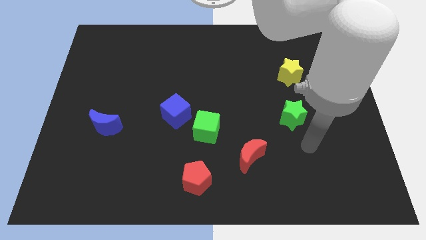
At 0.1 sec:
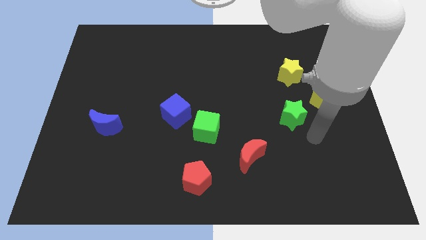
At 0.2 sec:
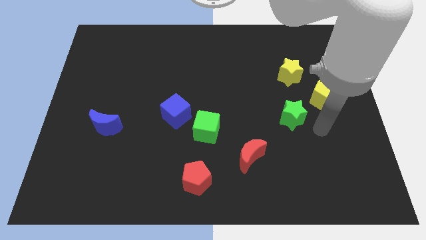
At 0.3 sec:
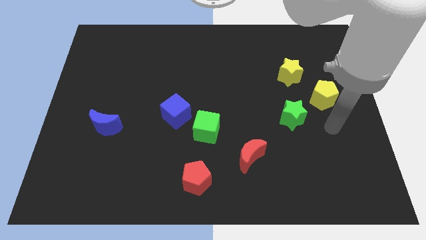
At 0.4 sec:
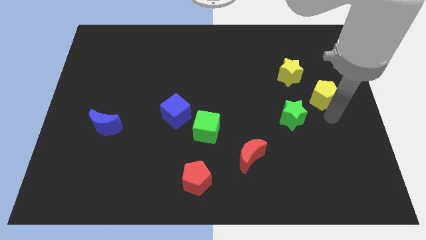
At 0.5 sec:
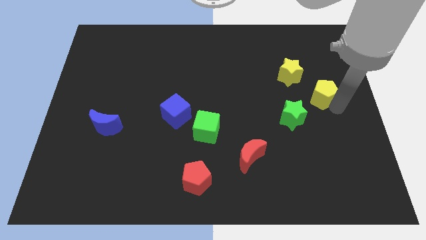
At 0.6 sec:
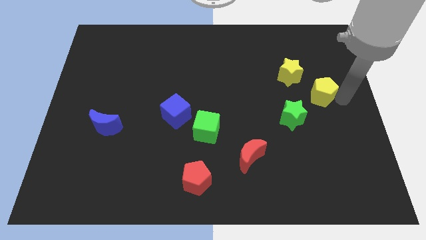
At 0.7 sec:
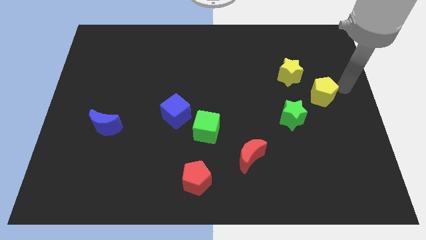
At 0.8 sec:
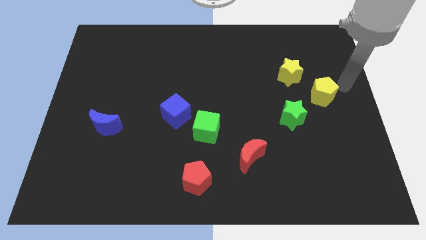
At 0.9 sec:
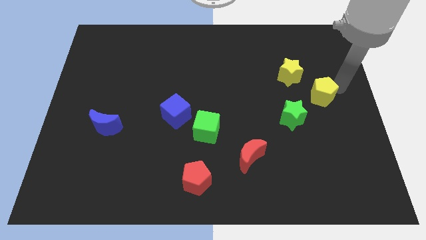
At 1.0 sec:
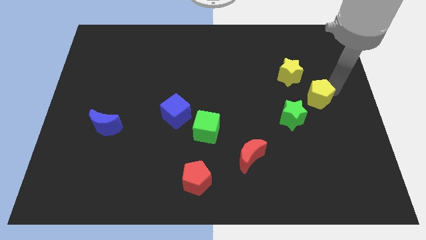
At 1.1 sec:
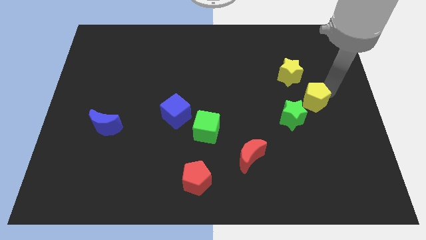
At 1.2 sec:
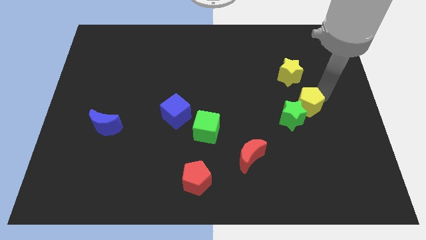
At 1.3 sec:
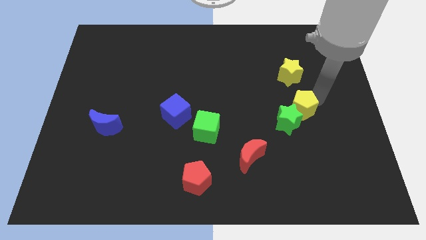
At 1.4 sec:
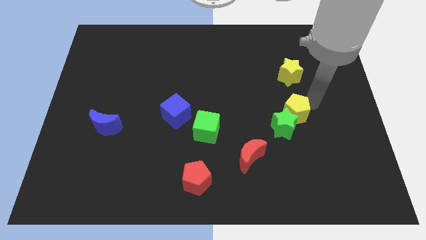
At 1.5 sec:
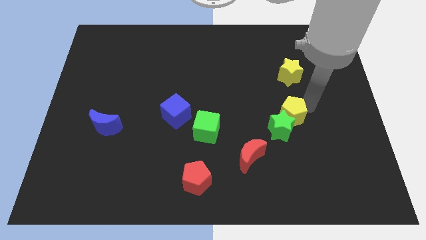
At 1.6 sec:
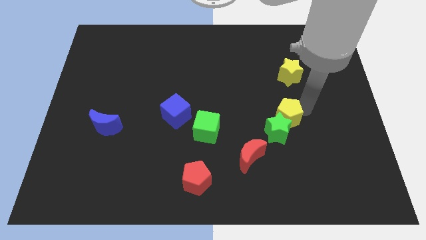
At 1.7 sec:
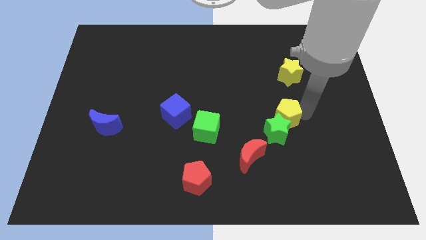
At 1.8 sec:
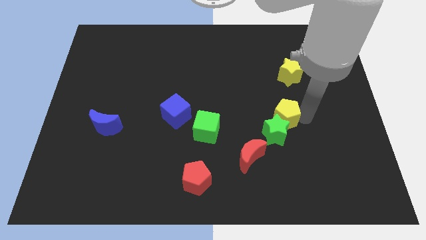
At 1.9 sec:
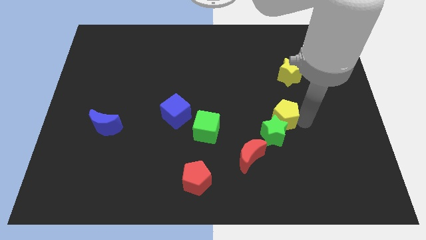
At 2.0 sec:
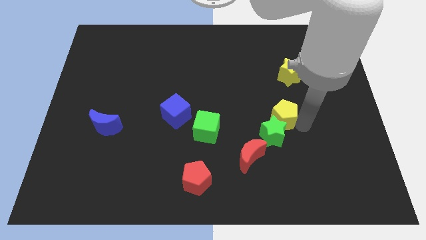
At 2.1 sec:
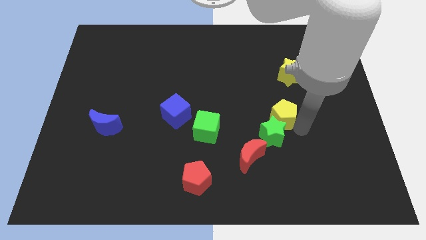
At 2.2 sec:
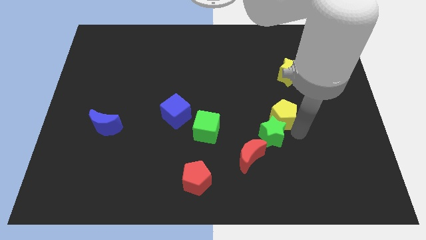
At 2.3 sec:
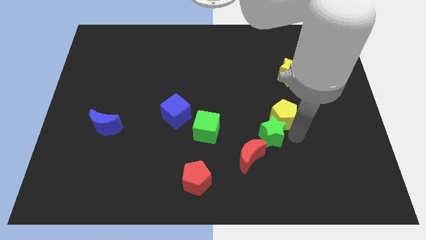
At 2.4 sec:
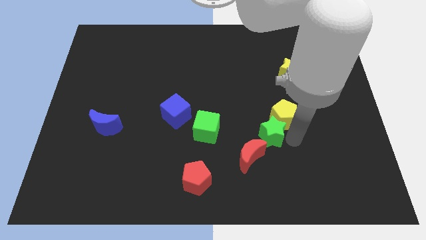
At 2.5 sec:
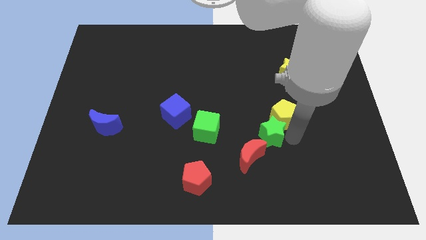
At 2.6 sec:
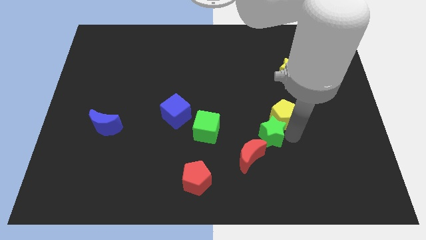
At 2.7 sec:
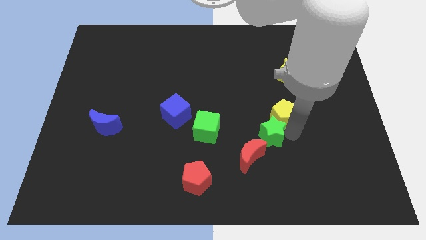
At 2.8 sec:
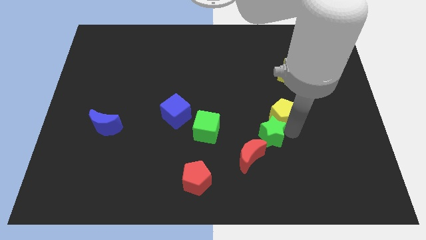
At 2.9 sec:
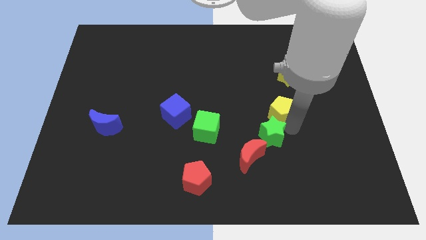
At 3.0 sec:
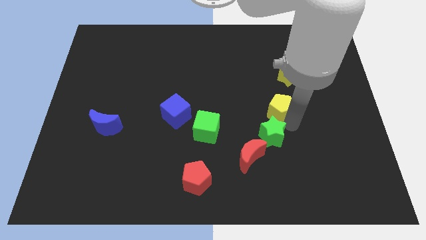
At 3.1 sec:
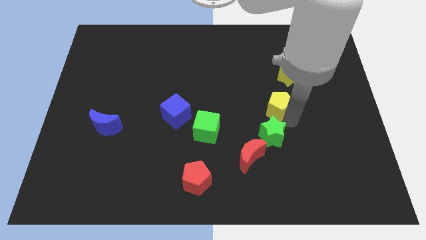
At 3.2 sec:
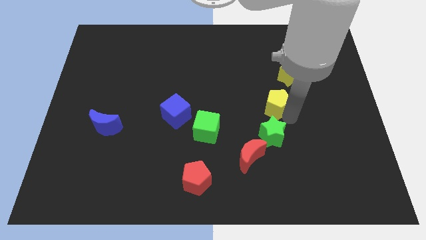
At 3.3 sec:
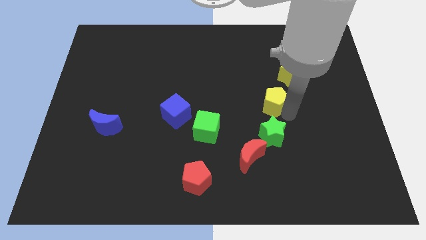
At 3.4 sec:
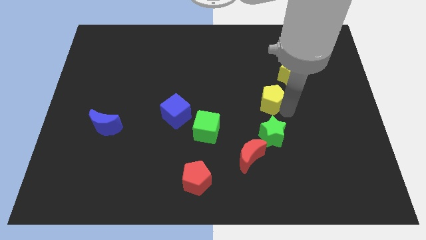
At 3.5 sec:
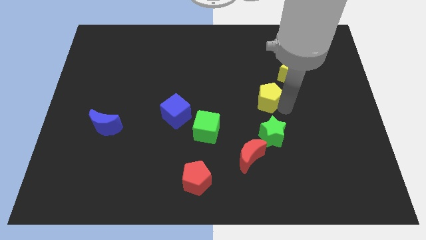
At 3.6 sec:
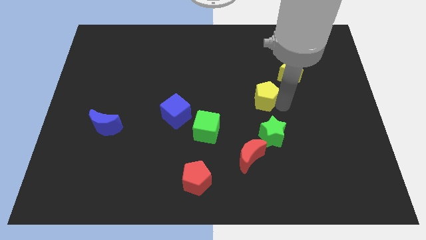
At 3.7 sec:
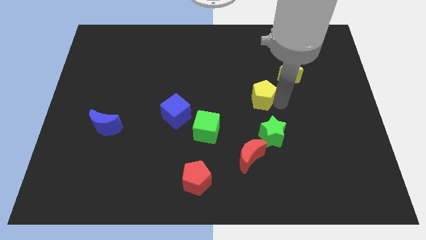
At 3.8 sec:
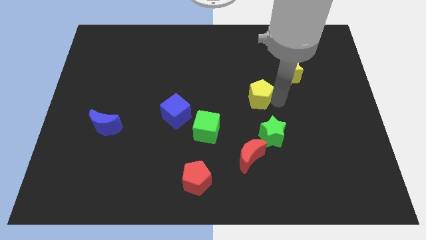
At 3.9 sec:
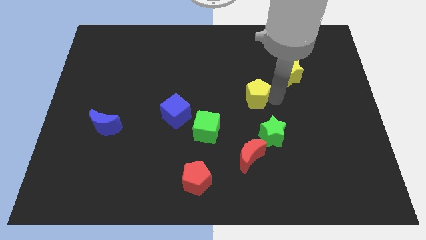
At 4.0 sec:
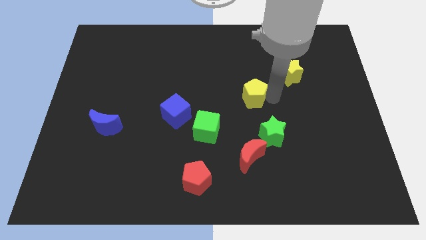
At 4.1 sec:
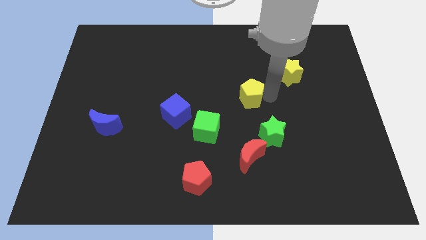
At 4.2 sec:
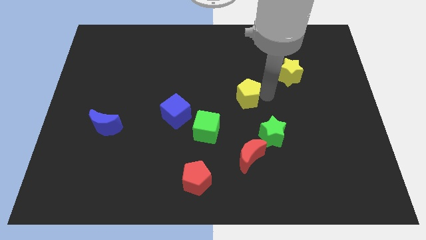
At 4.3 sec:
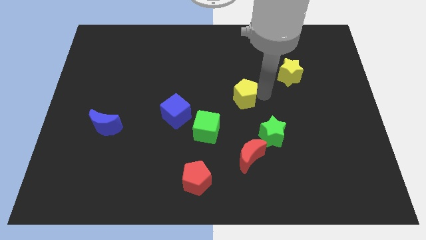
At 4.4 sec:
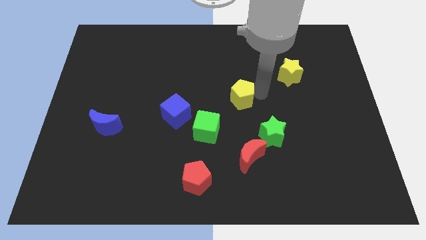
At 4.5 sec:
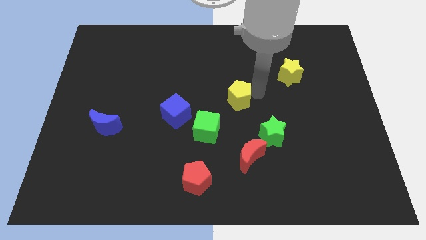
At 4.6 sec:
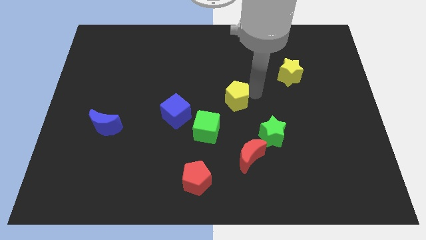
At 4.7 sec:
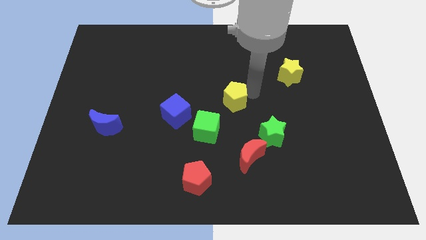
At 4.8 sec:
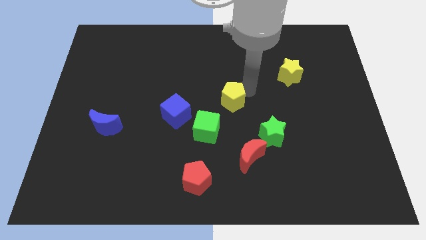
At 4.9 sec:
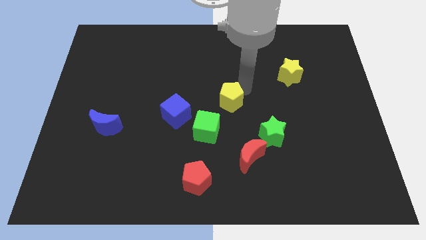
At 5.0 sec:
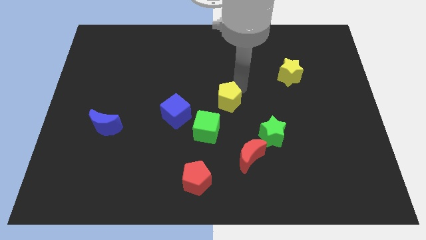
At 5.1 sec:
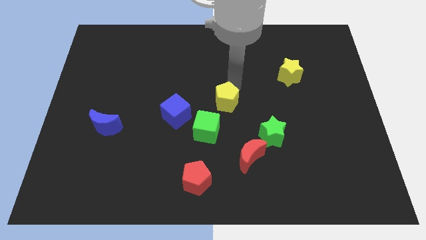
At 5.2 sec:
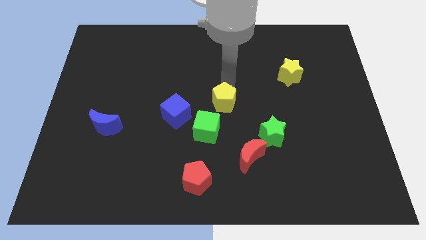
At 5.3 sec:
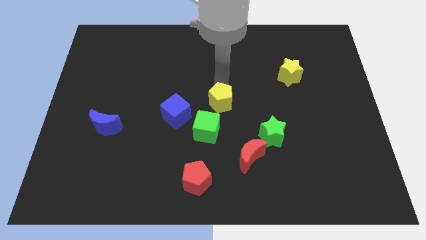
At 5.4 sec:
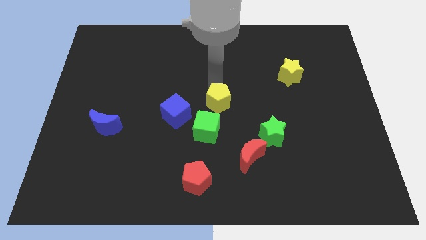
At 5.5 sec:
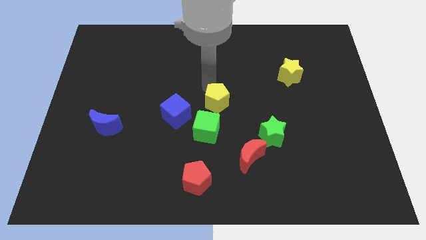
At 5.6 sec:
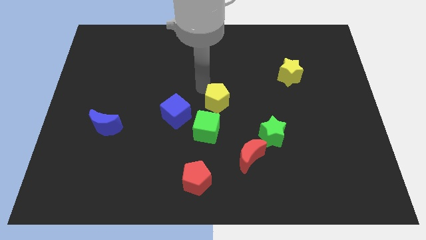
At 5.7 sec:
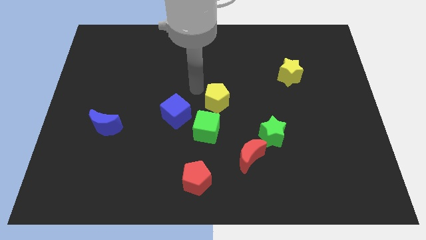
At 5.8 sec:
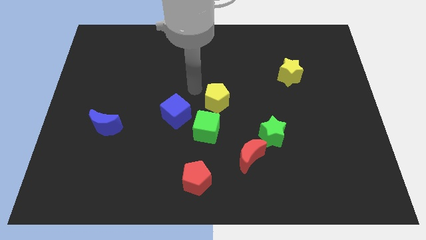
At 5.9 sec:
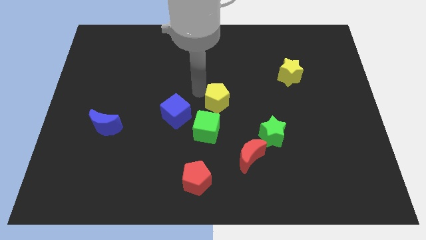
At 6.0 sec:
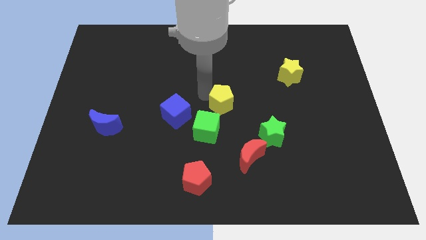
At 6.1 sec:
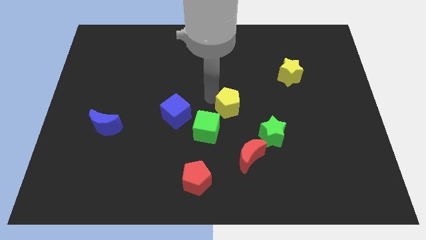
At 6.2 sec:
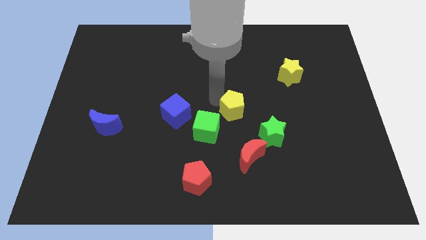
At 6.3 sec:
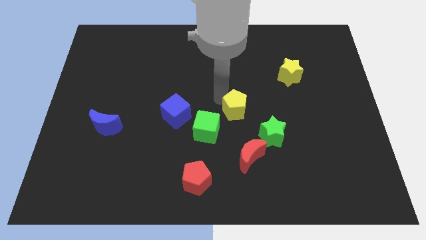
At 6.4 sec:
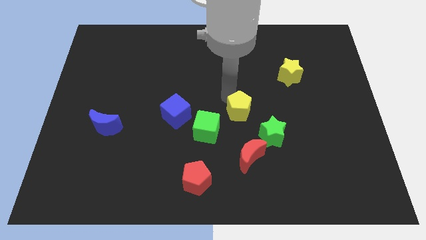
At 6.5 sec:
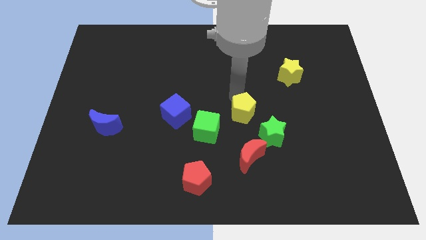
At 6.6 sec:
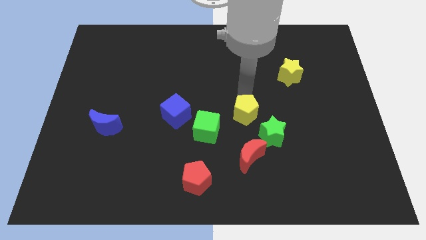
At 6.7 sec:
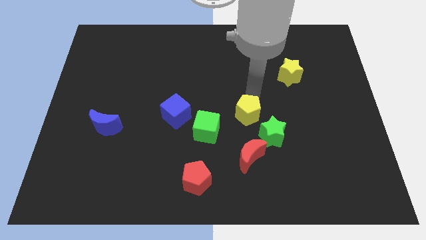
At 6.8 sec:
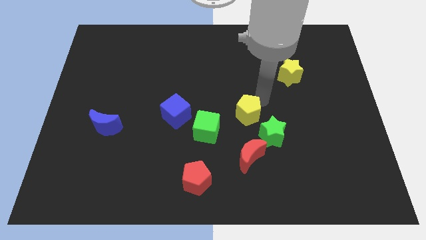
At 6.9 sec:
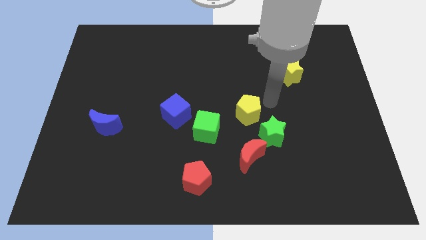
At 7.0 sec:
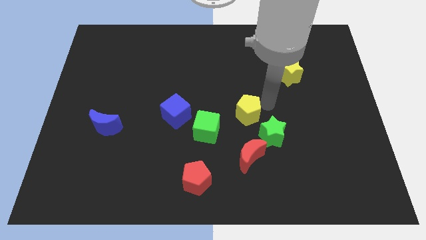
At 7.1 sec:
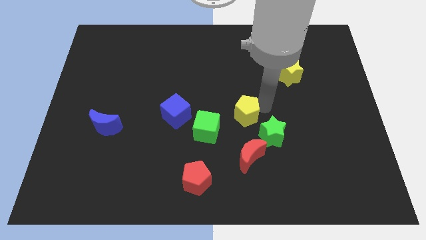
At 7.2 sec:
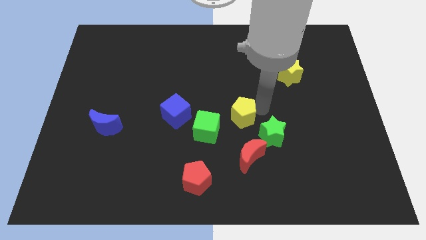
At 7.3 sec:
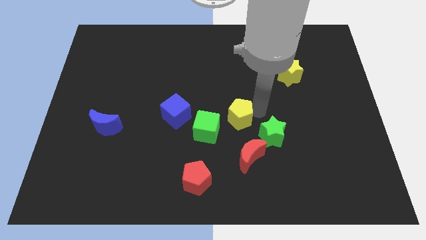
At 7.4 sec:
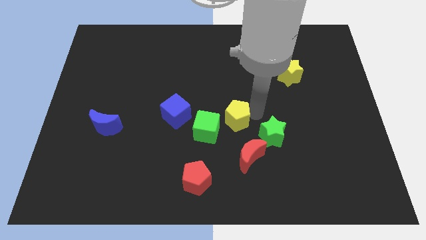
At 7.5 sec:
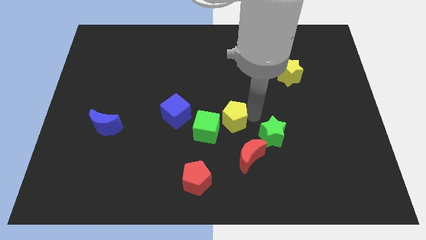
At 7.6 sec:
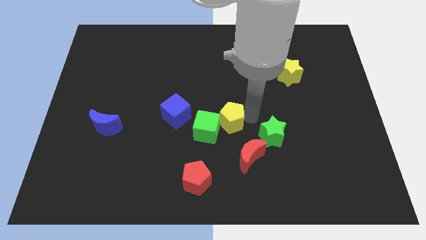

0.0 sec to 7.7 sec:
slide the yellow pentagon next to the green cube

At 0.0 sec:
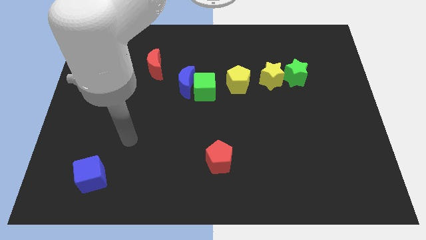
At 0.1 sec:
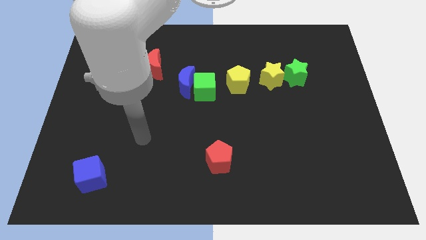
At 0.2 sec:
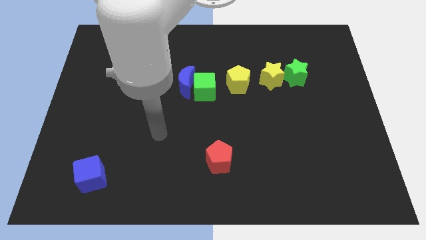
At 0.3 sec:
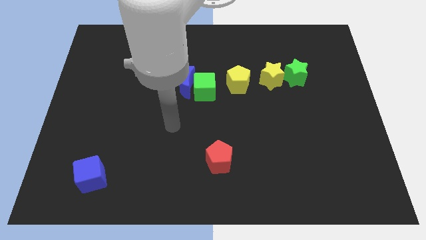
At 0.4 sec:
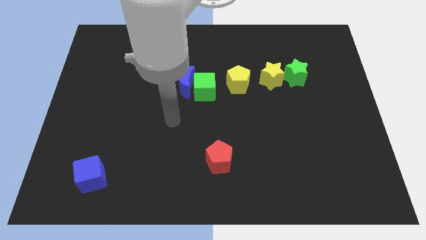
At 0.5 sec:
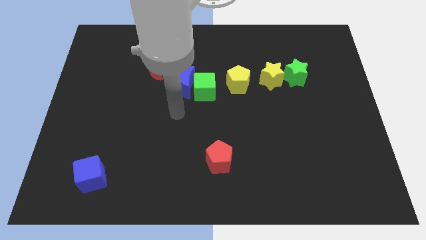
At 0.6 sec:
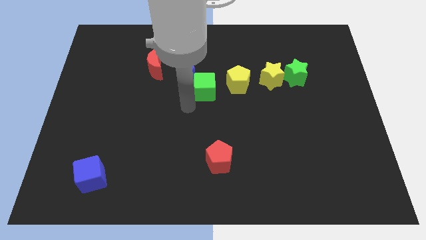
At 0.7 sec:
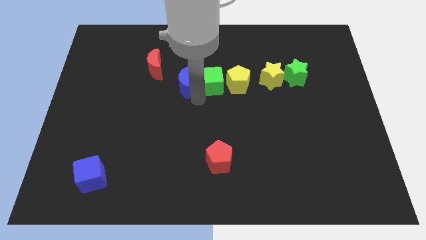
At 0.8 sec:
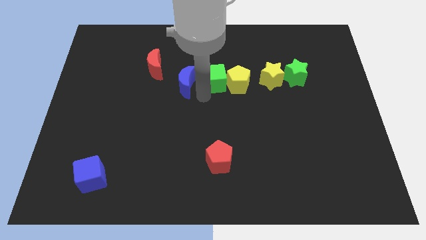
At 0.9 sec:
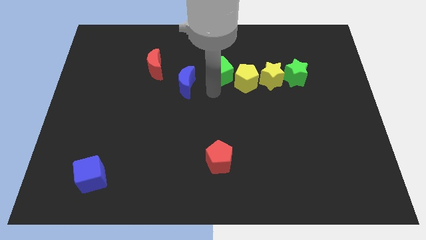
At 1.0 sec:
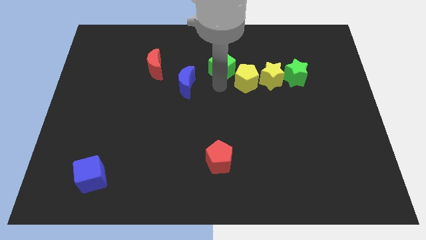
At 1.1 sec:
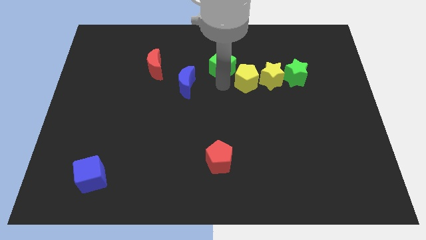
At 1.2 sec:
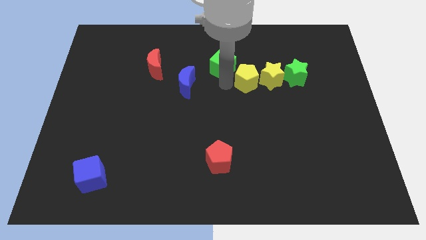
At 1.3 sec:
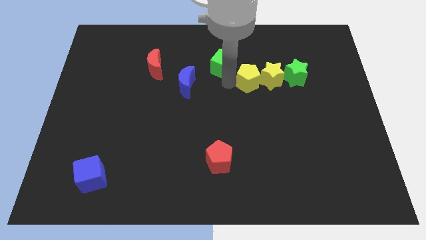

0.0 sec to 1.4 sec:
push the yellow pentagon towards the yellow star
